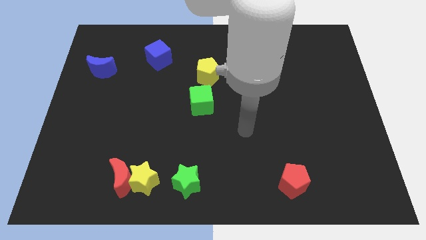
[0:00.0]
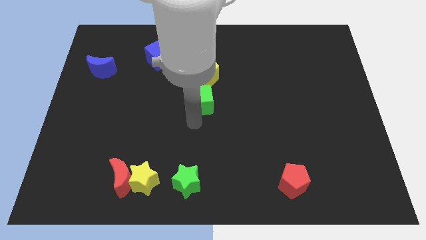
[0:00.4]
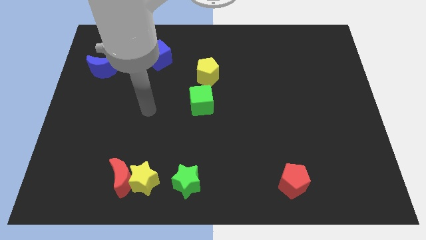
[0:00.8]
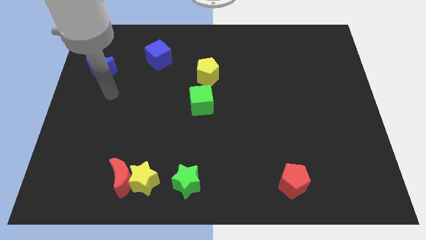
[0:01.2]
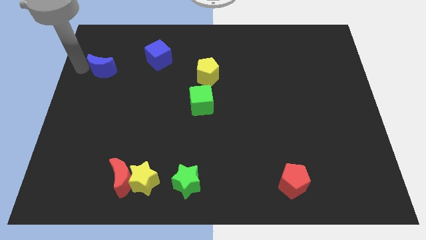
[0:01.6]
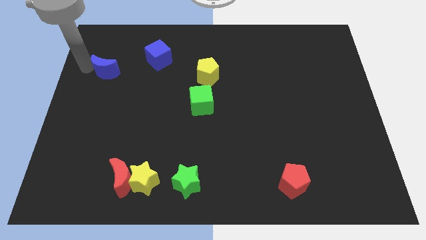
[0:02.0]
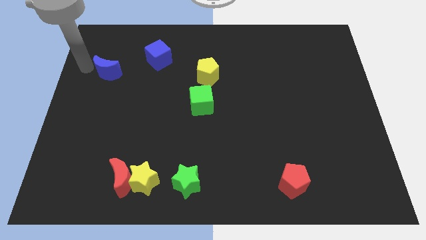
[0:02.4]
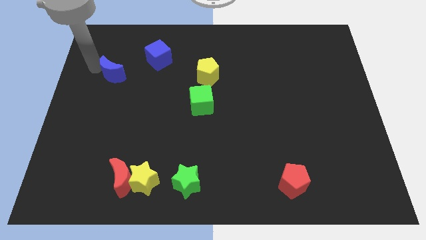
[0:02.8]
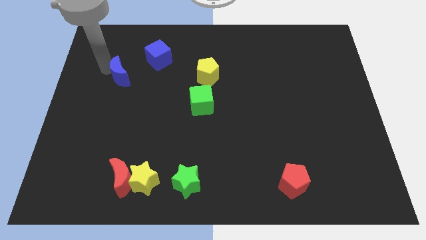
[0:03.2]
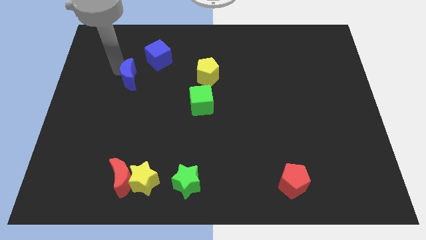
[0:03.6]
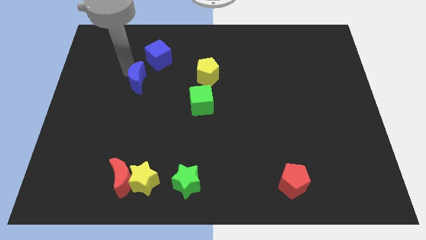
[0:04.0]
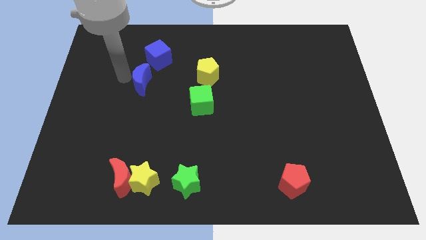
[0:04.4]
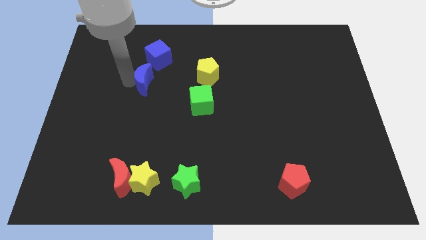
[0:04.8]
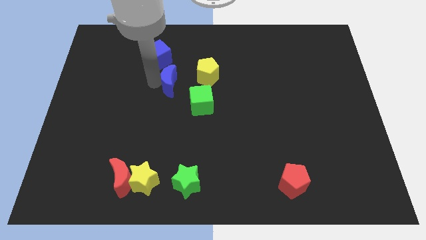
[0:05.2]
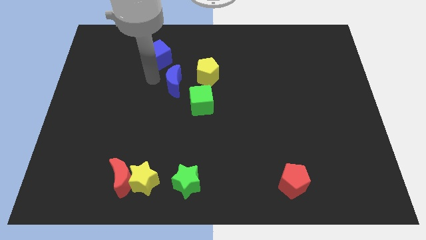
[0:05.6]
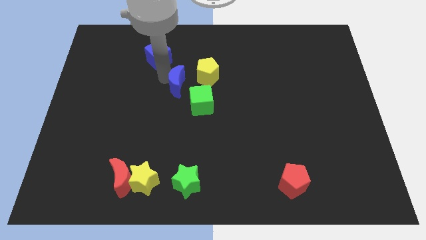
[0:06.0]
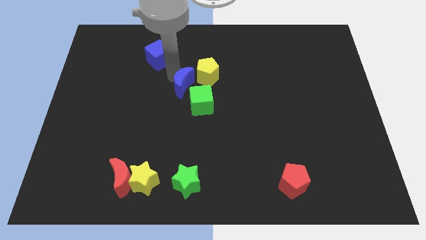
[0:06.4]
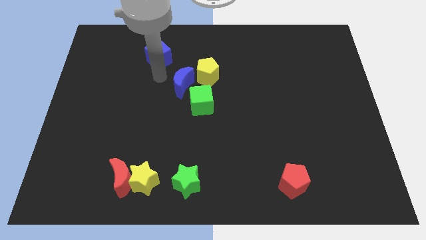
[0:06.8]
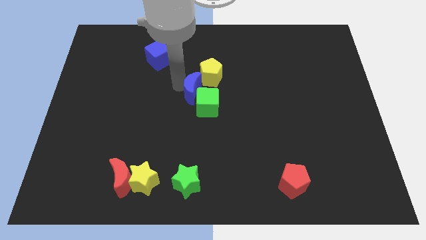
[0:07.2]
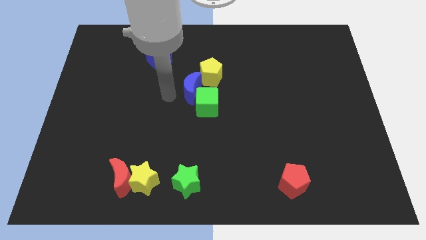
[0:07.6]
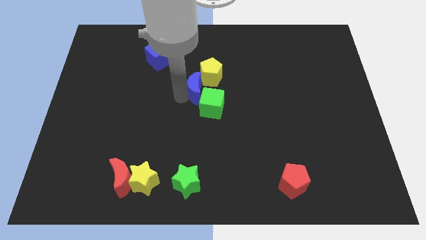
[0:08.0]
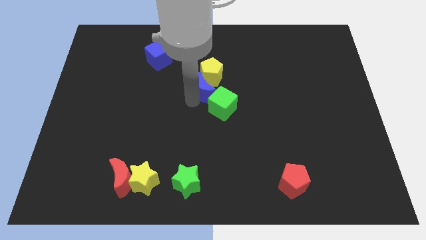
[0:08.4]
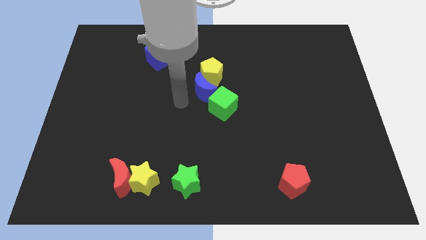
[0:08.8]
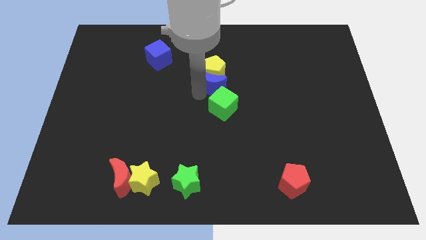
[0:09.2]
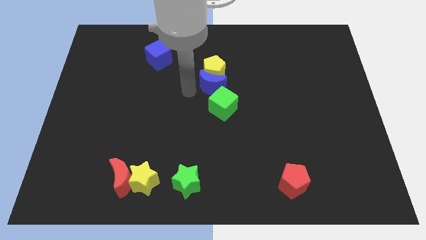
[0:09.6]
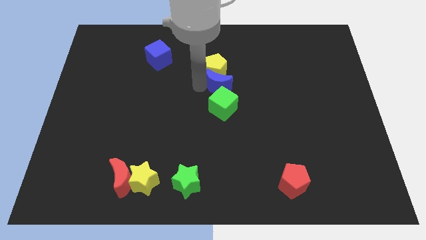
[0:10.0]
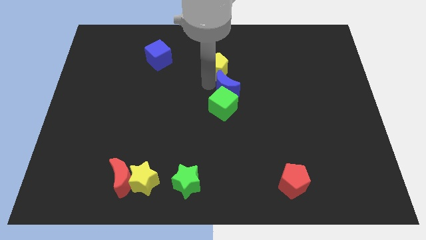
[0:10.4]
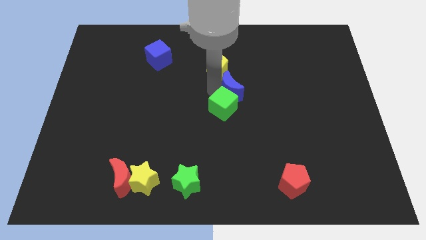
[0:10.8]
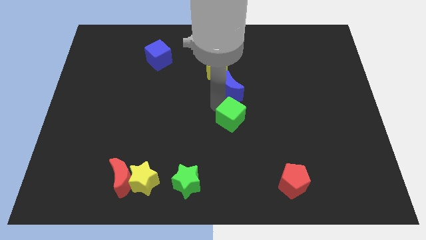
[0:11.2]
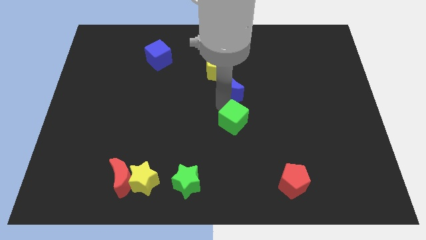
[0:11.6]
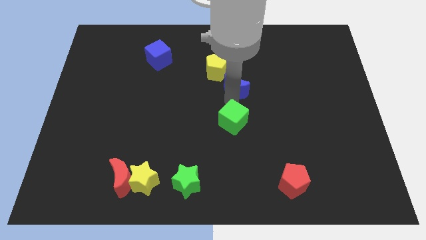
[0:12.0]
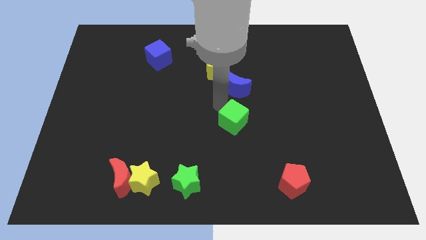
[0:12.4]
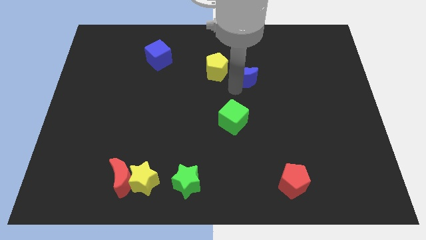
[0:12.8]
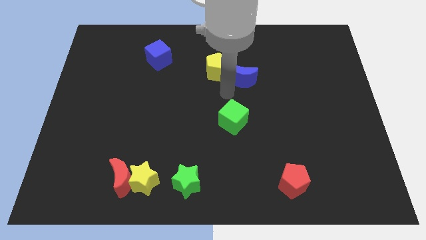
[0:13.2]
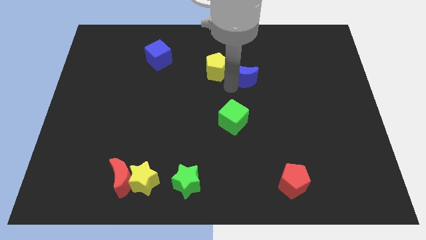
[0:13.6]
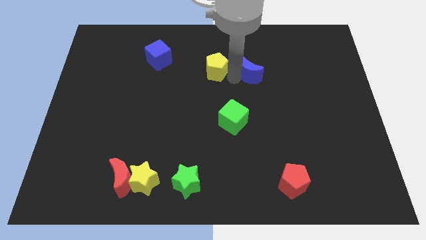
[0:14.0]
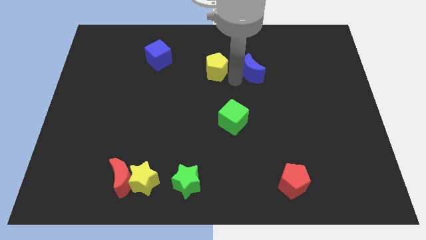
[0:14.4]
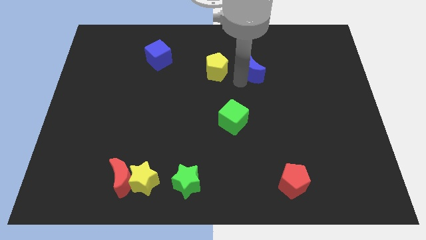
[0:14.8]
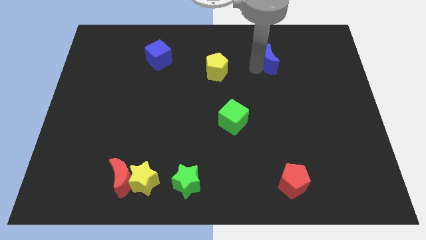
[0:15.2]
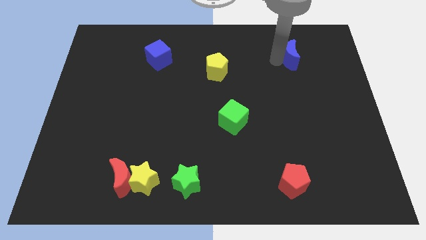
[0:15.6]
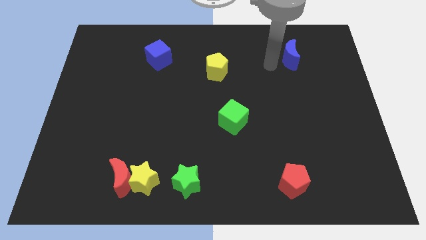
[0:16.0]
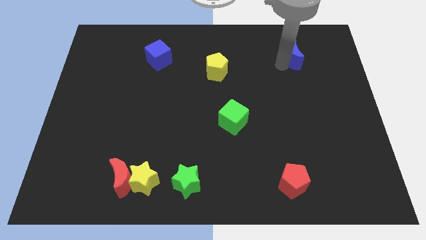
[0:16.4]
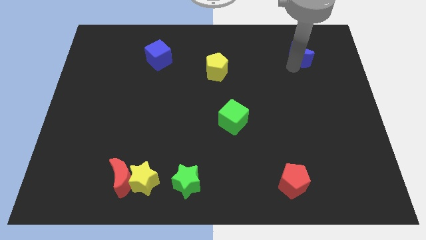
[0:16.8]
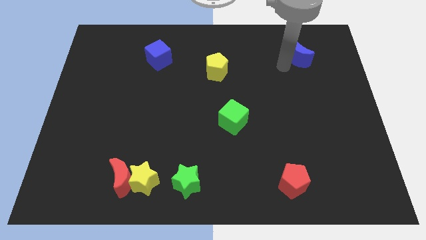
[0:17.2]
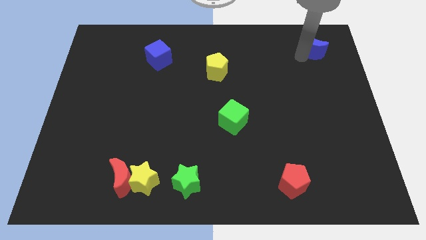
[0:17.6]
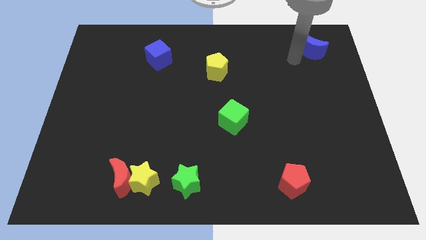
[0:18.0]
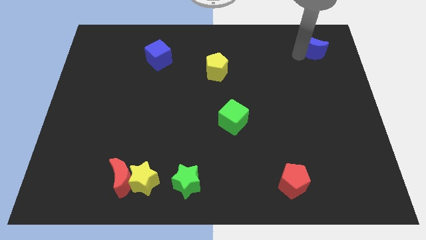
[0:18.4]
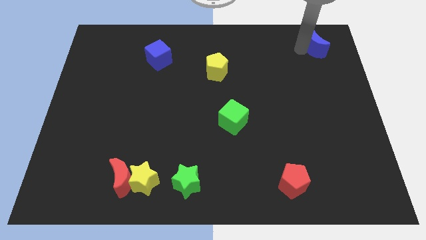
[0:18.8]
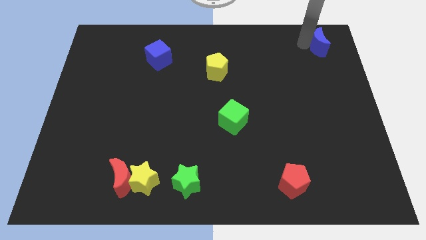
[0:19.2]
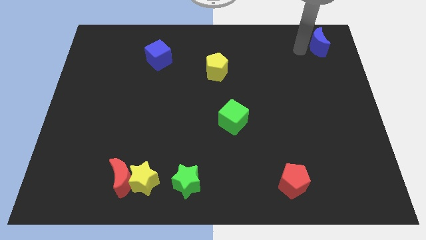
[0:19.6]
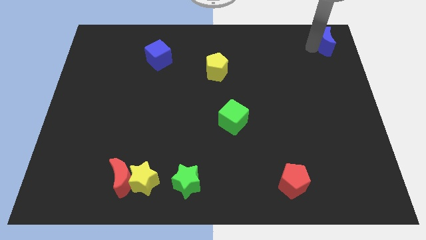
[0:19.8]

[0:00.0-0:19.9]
slide the blue moon to the upper right corner
